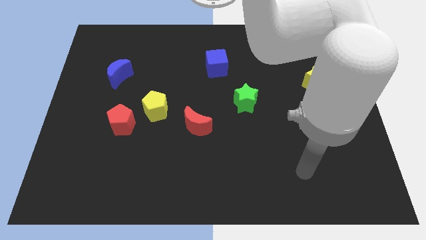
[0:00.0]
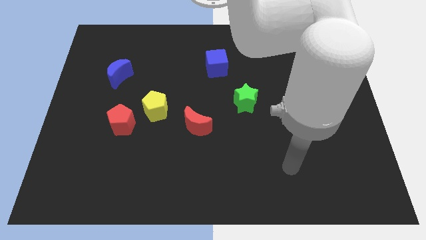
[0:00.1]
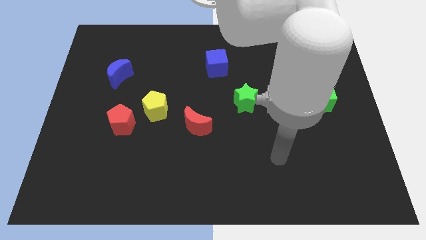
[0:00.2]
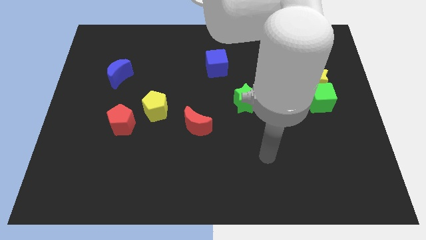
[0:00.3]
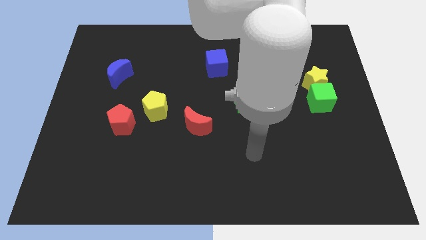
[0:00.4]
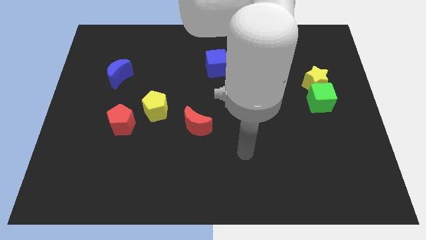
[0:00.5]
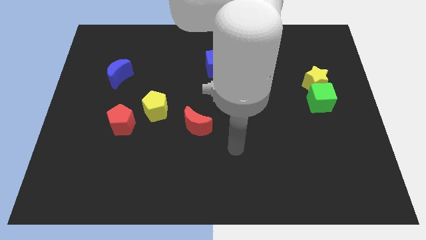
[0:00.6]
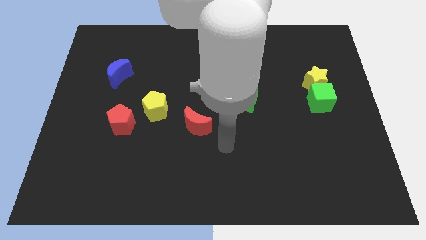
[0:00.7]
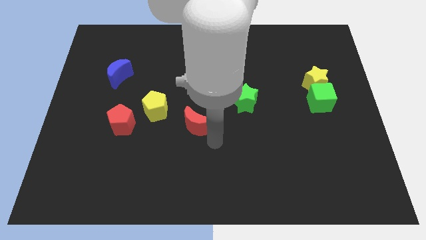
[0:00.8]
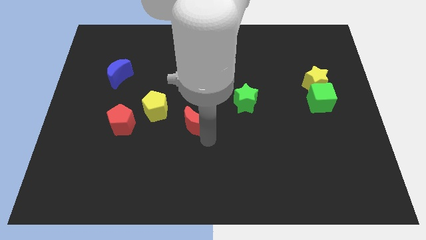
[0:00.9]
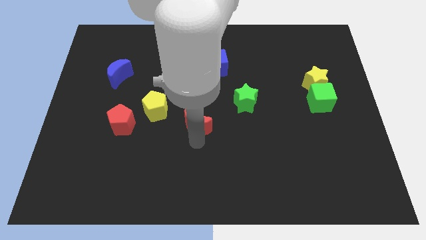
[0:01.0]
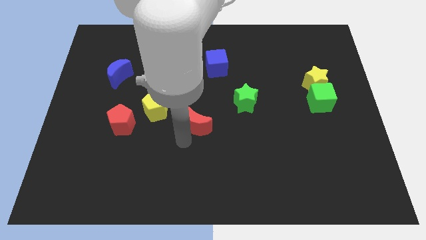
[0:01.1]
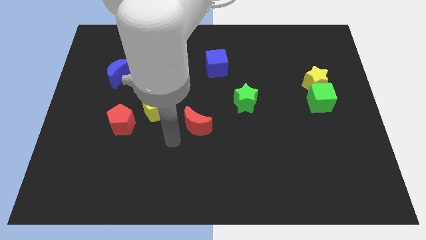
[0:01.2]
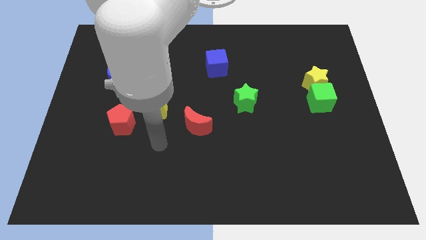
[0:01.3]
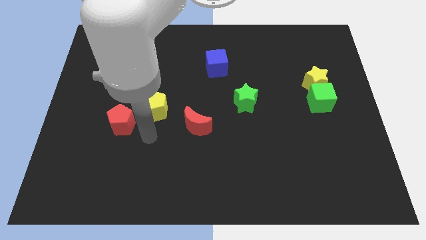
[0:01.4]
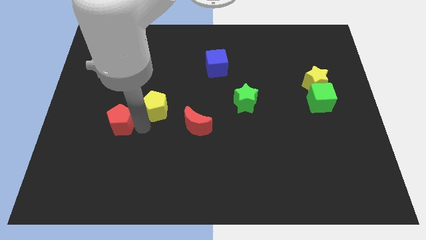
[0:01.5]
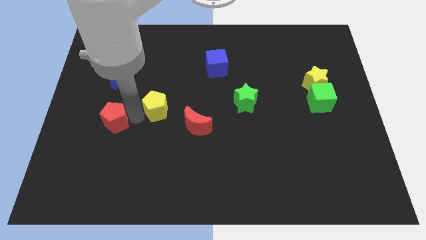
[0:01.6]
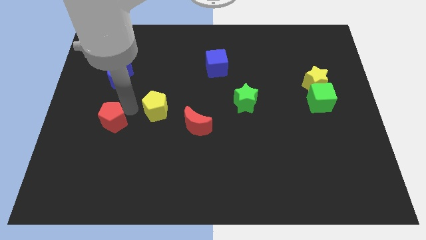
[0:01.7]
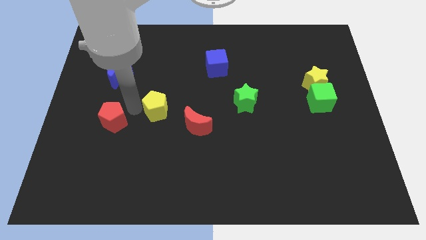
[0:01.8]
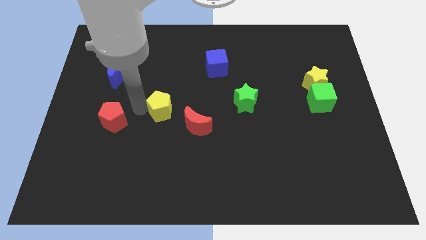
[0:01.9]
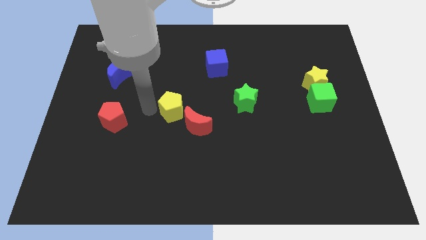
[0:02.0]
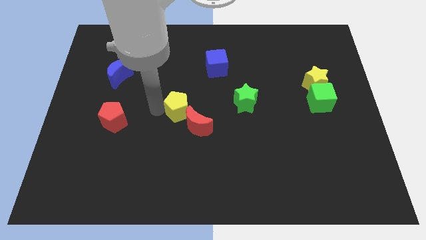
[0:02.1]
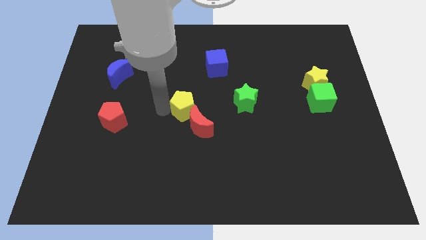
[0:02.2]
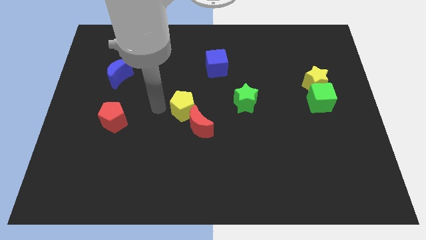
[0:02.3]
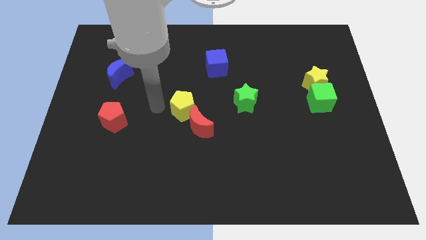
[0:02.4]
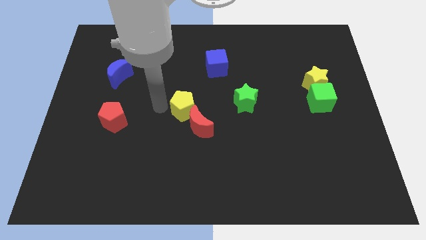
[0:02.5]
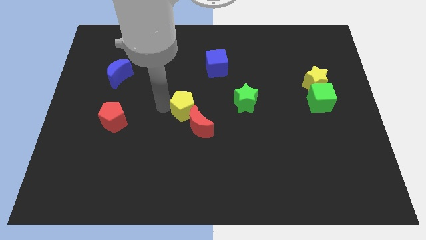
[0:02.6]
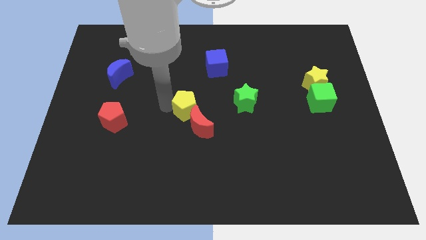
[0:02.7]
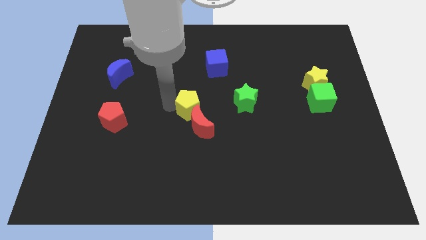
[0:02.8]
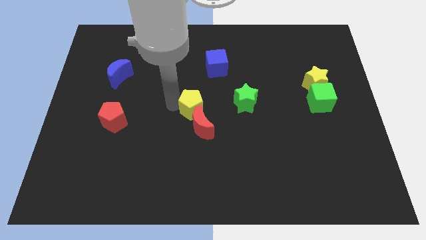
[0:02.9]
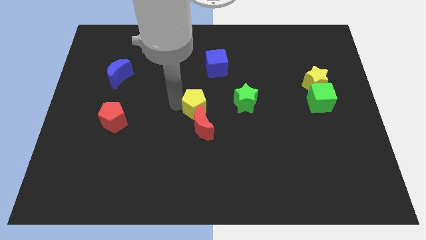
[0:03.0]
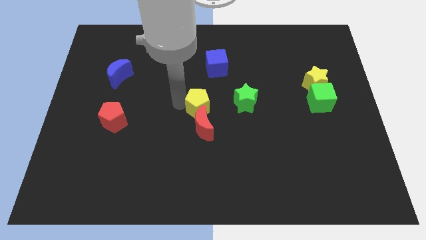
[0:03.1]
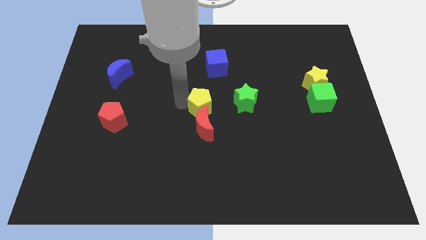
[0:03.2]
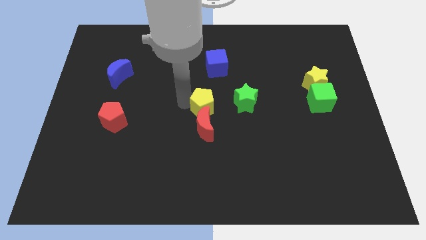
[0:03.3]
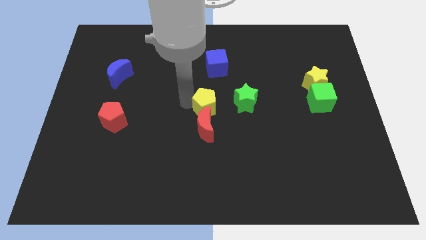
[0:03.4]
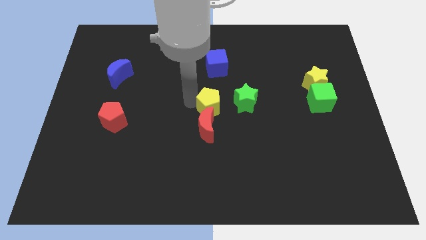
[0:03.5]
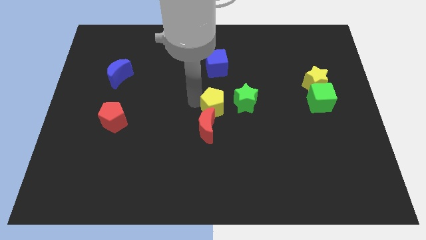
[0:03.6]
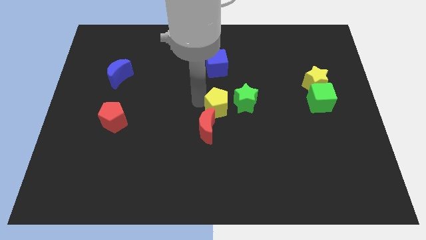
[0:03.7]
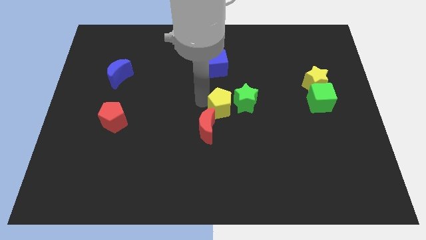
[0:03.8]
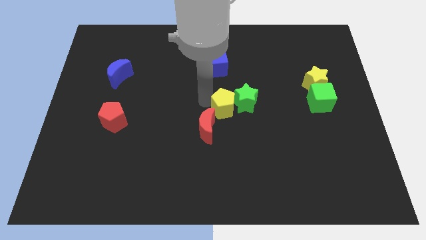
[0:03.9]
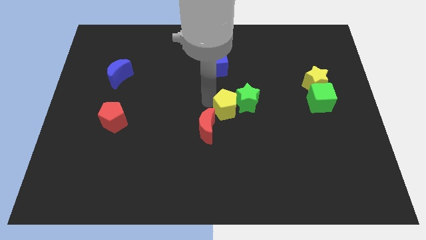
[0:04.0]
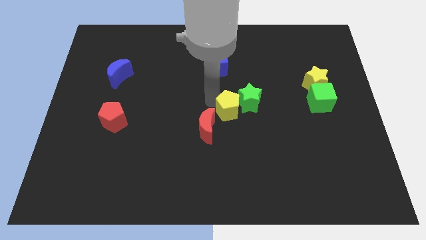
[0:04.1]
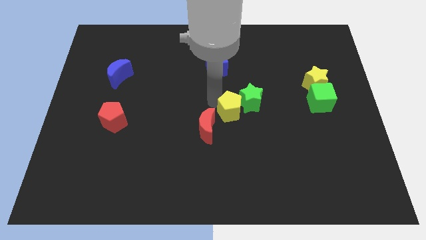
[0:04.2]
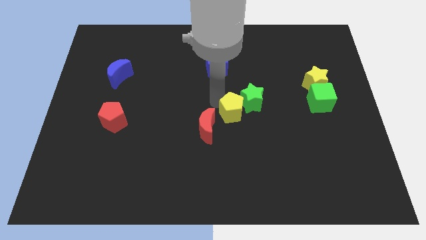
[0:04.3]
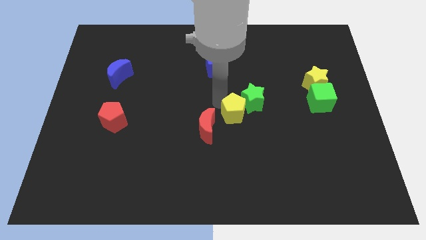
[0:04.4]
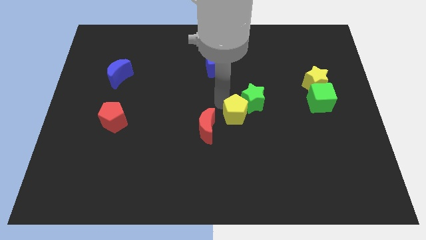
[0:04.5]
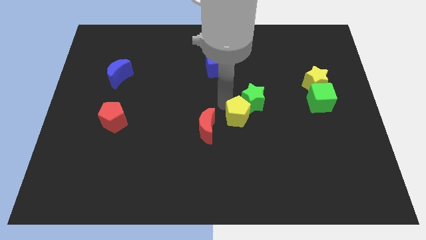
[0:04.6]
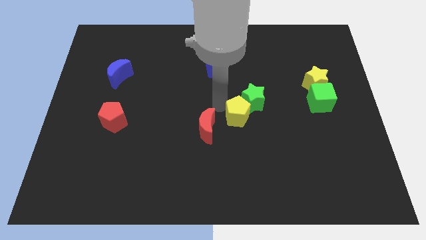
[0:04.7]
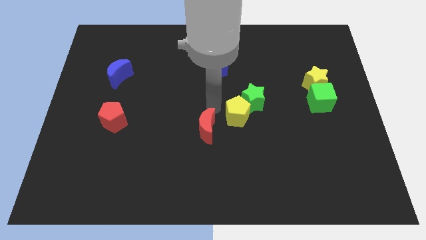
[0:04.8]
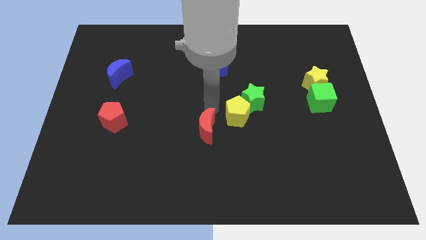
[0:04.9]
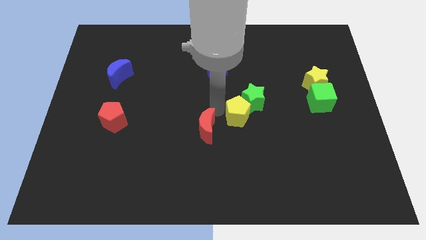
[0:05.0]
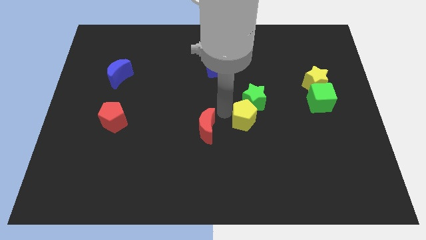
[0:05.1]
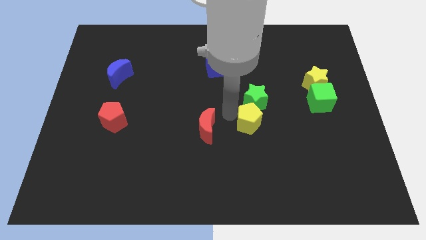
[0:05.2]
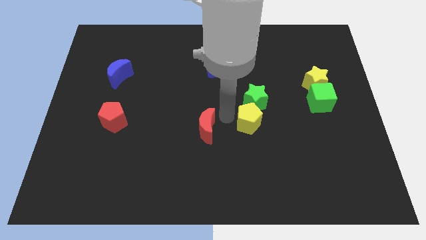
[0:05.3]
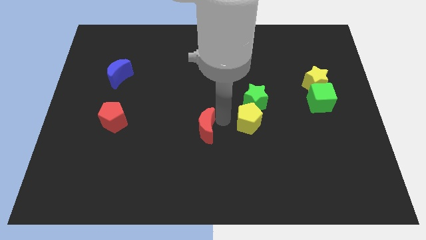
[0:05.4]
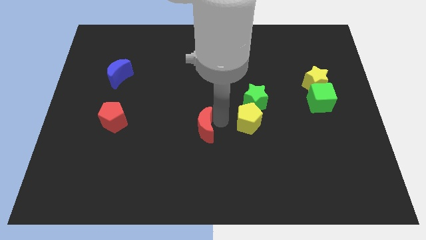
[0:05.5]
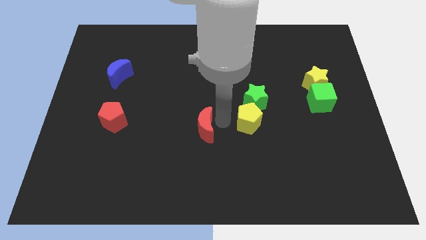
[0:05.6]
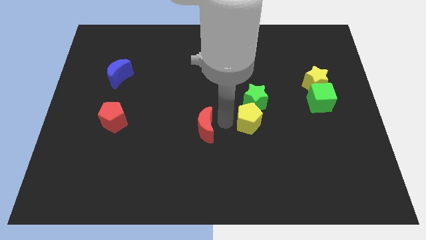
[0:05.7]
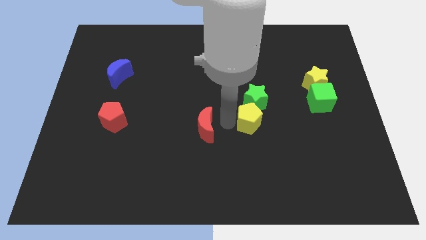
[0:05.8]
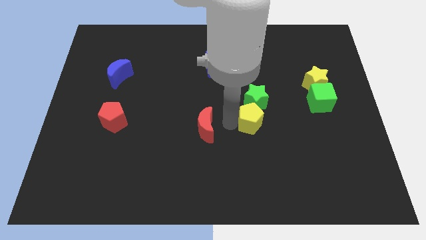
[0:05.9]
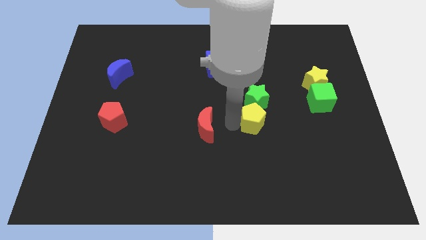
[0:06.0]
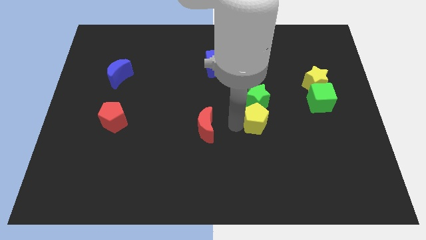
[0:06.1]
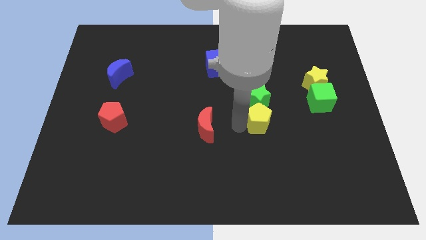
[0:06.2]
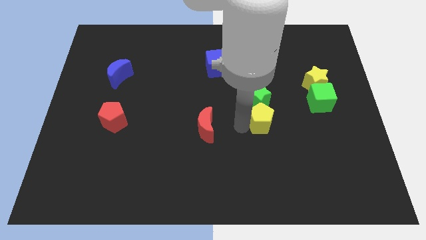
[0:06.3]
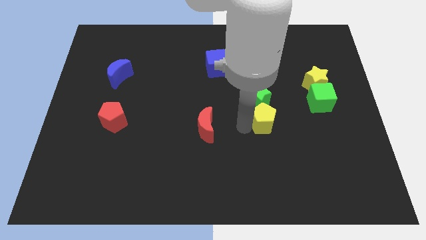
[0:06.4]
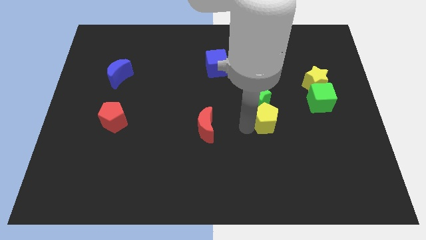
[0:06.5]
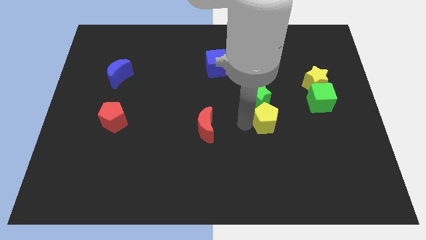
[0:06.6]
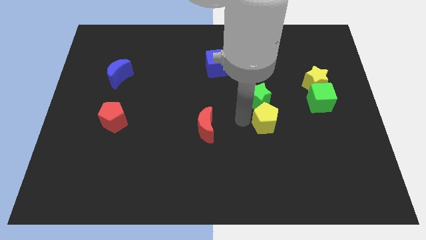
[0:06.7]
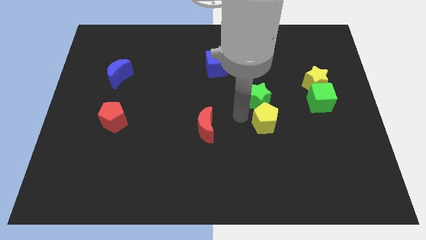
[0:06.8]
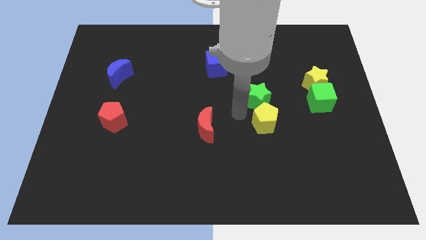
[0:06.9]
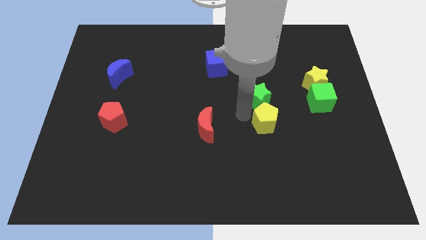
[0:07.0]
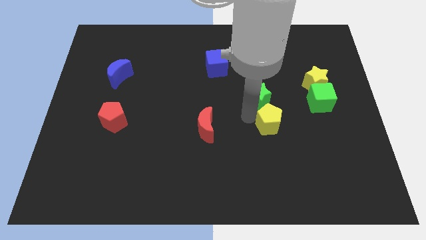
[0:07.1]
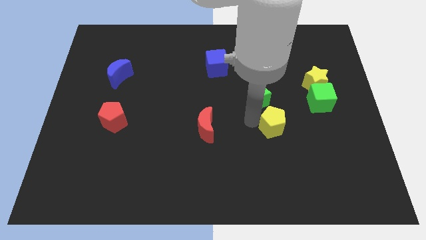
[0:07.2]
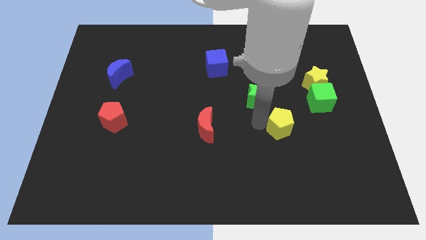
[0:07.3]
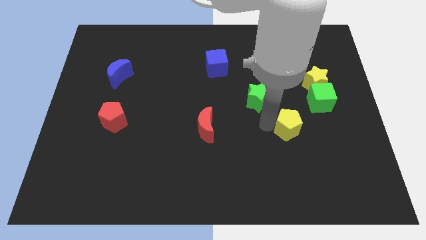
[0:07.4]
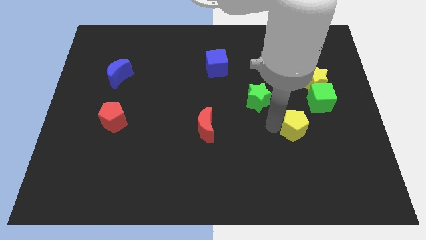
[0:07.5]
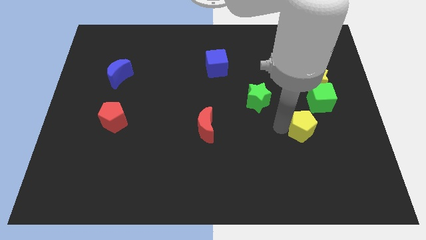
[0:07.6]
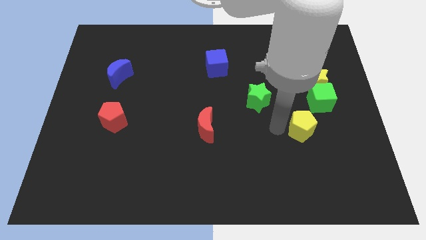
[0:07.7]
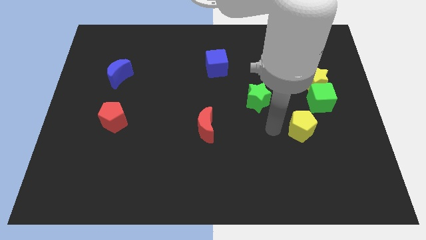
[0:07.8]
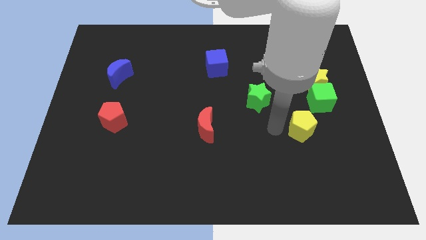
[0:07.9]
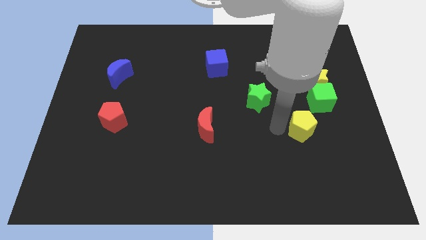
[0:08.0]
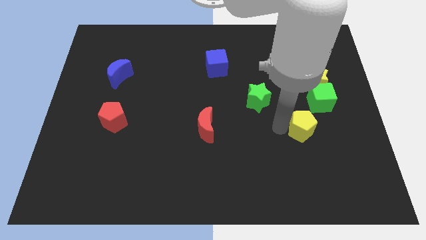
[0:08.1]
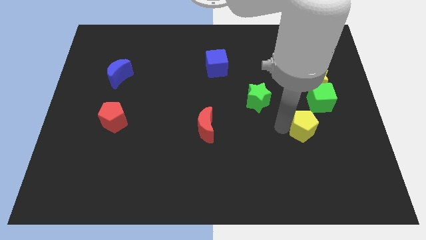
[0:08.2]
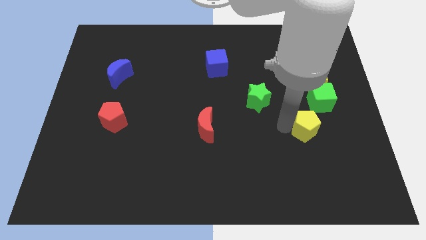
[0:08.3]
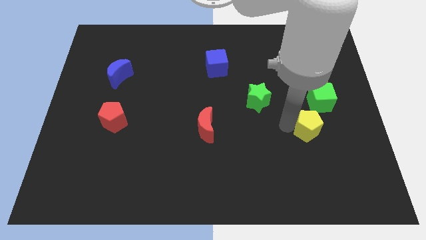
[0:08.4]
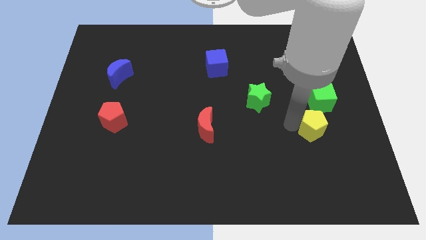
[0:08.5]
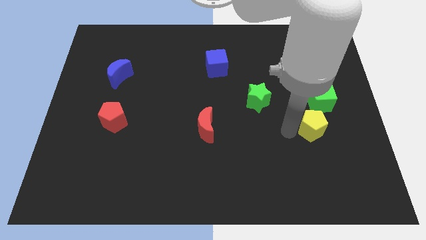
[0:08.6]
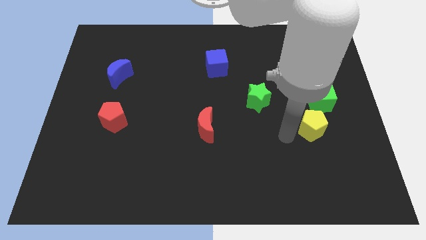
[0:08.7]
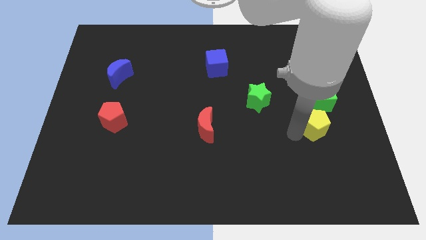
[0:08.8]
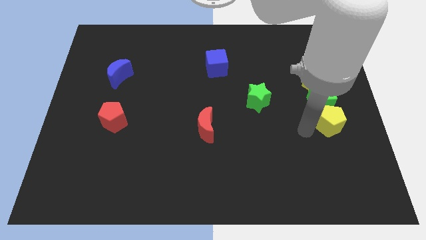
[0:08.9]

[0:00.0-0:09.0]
slide the yellow pentagon to the right side of the board
